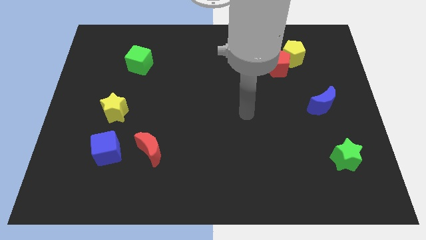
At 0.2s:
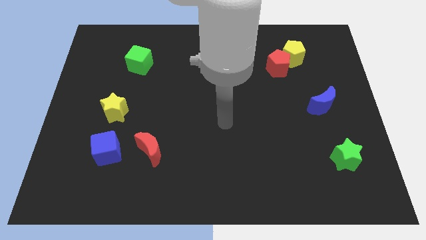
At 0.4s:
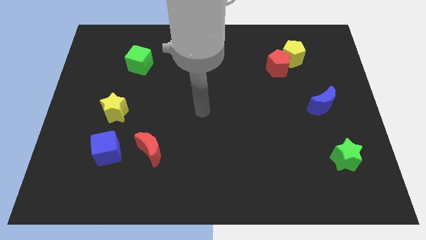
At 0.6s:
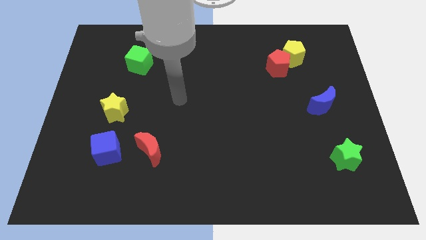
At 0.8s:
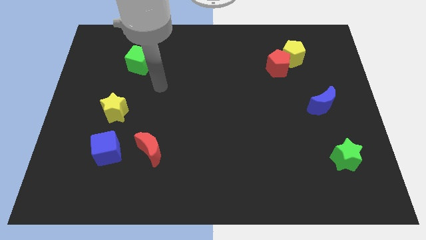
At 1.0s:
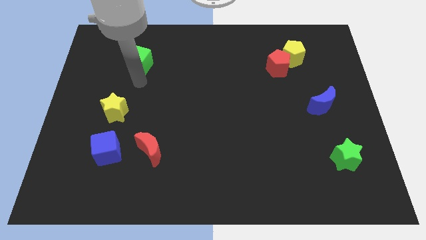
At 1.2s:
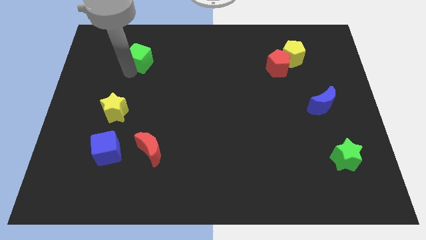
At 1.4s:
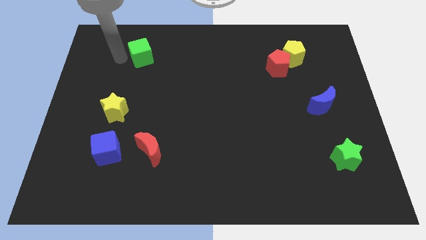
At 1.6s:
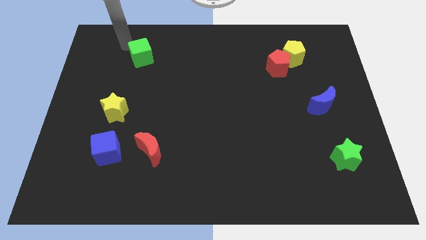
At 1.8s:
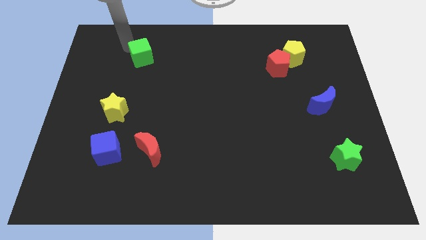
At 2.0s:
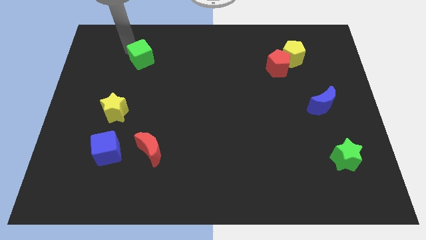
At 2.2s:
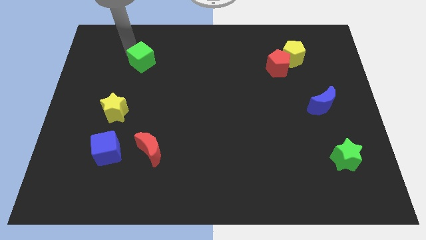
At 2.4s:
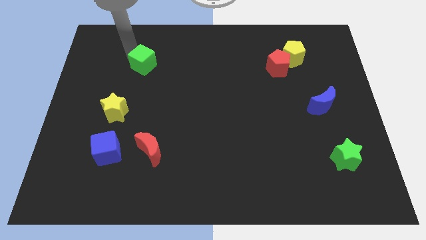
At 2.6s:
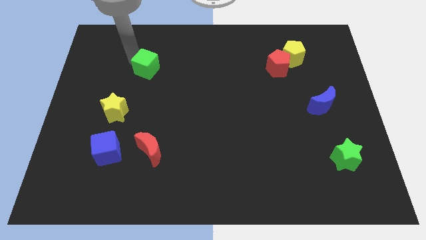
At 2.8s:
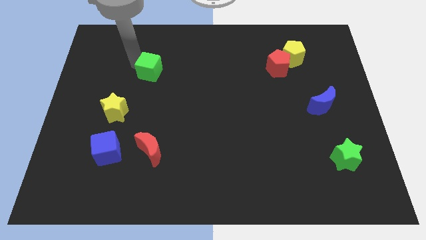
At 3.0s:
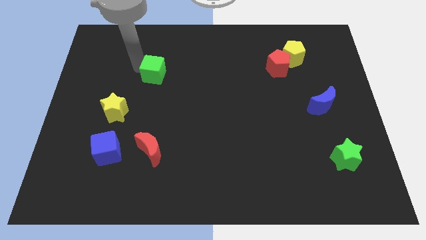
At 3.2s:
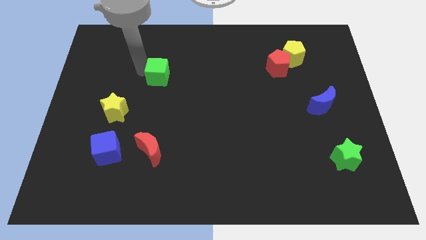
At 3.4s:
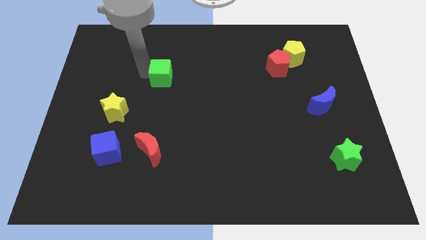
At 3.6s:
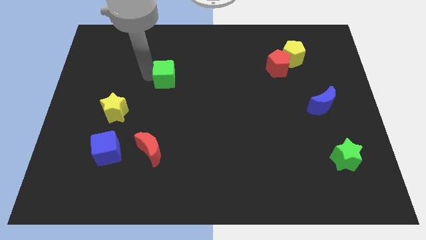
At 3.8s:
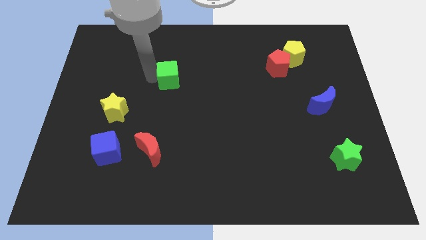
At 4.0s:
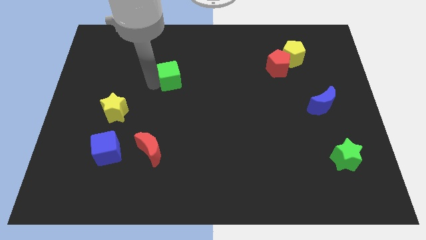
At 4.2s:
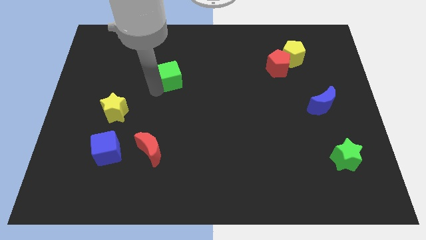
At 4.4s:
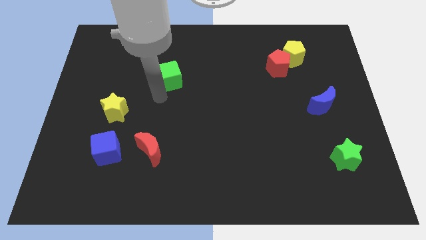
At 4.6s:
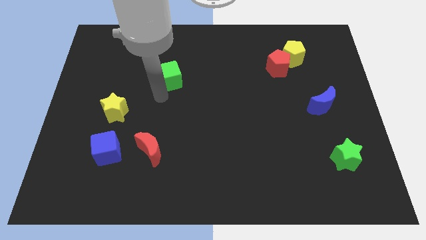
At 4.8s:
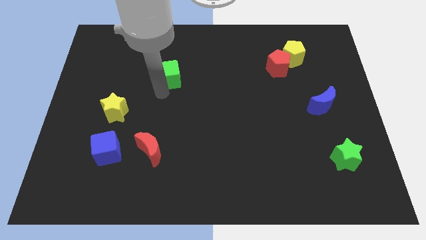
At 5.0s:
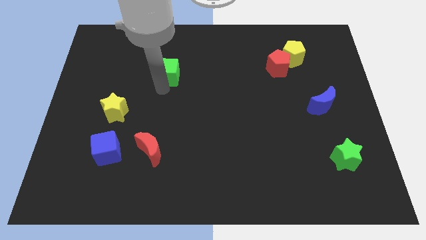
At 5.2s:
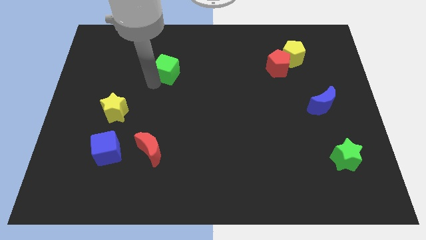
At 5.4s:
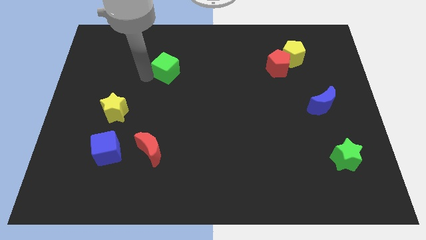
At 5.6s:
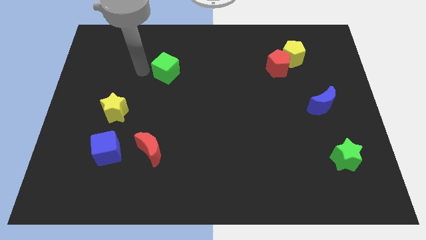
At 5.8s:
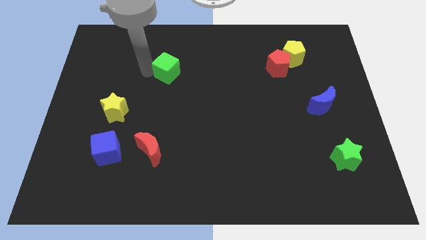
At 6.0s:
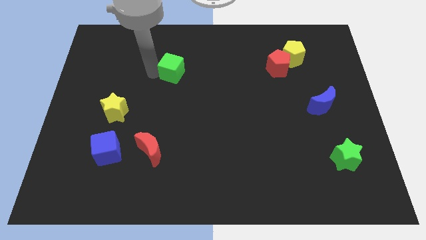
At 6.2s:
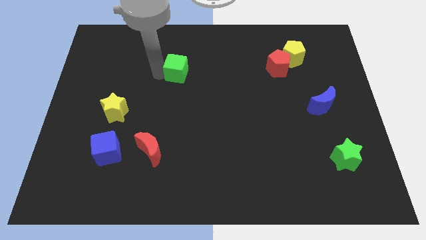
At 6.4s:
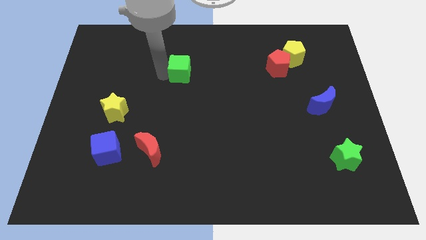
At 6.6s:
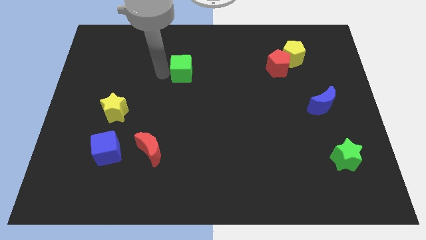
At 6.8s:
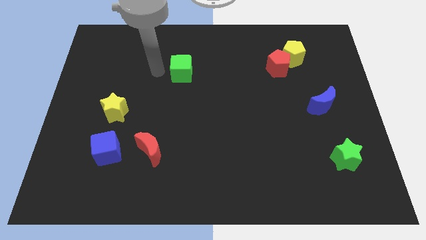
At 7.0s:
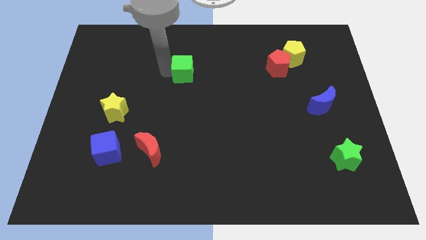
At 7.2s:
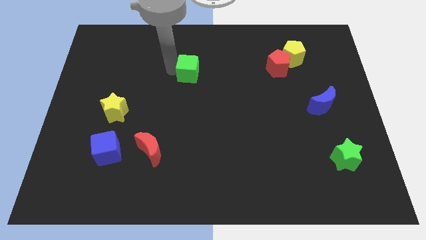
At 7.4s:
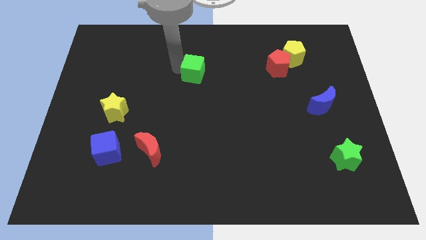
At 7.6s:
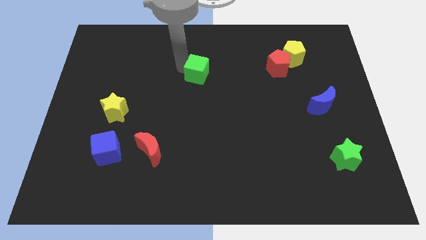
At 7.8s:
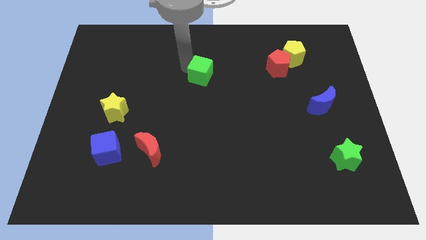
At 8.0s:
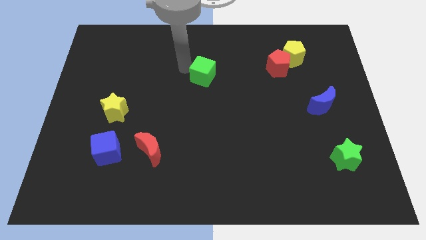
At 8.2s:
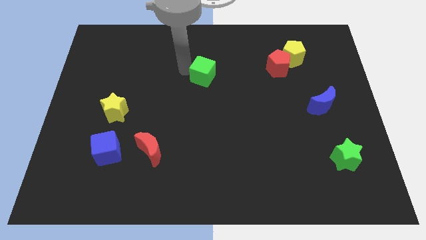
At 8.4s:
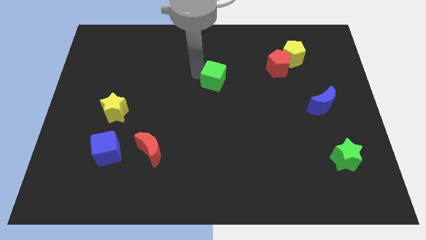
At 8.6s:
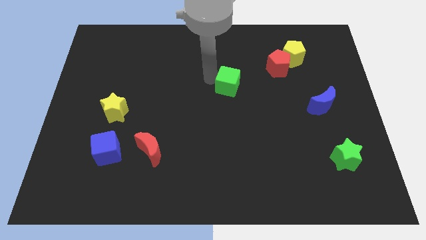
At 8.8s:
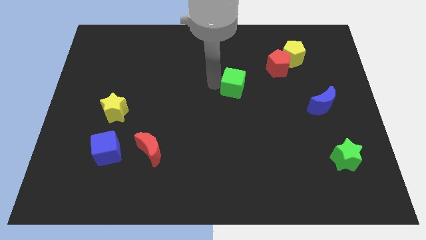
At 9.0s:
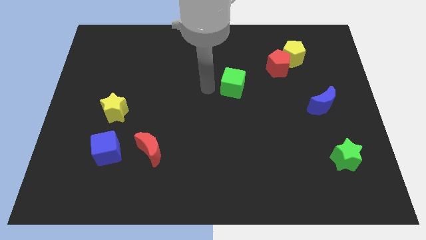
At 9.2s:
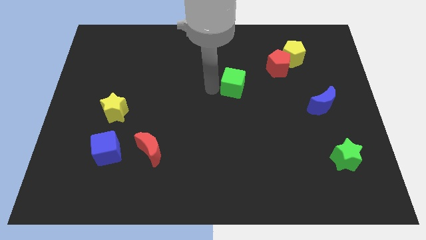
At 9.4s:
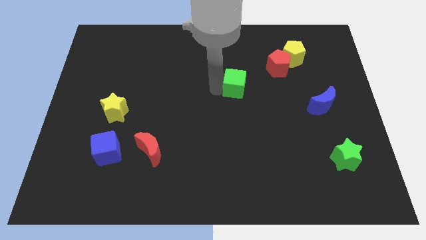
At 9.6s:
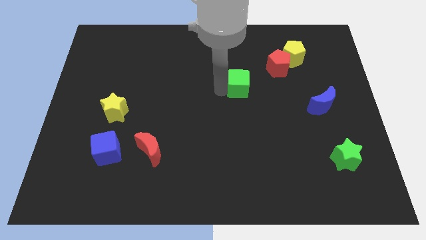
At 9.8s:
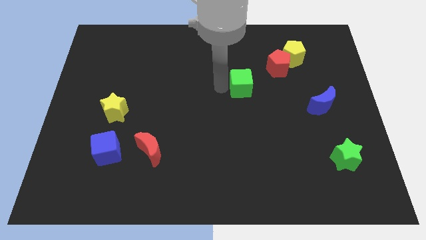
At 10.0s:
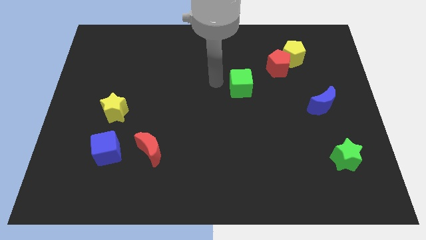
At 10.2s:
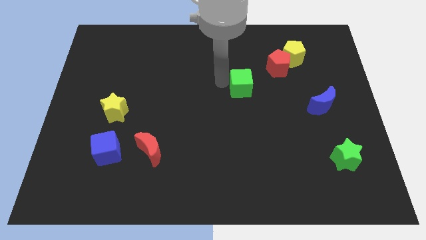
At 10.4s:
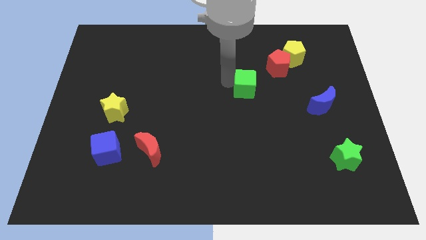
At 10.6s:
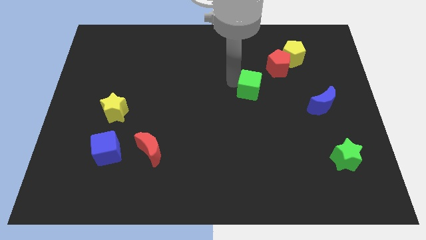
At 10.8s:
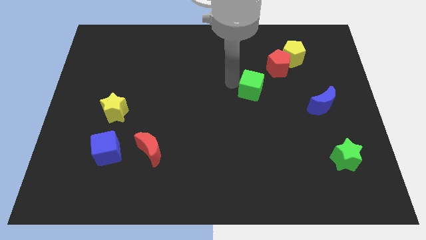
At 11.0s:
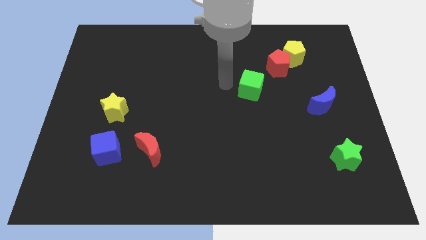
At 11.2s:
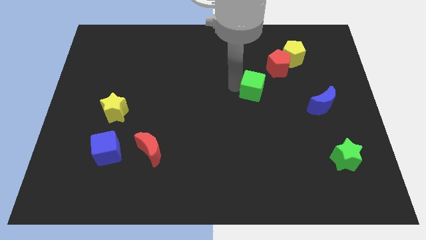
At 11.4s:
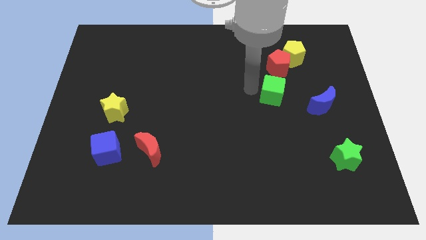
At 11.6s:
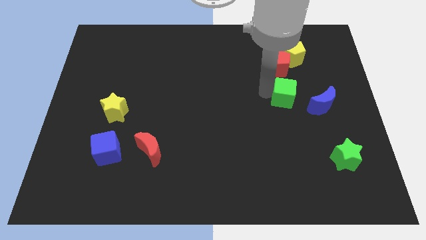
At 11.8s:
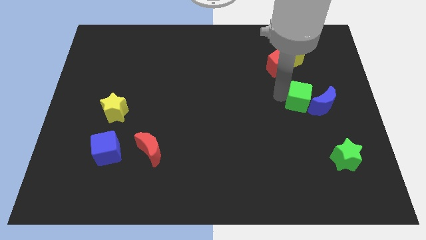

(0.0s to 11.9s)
push the green cube towards the blue moon

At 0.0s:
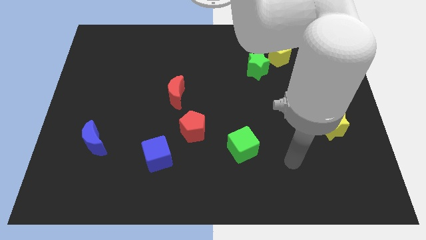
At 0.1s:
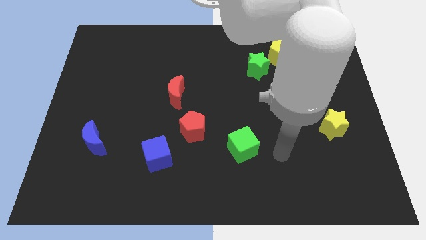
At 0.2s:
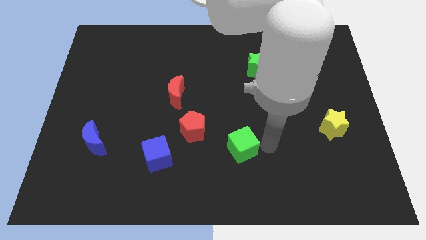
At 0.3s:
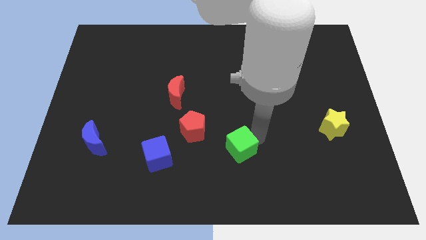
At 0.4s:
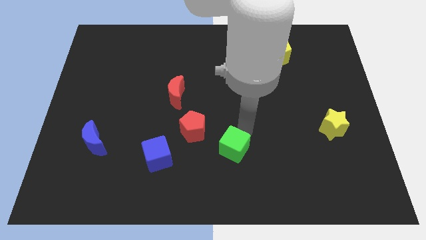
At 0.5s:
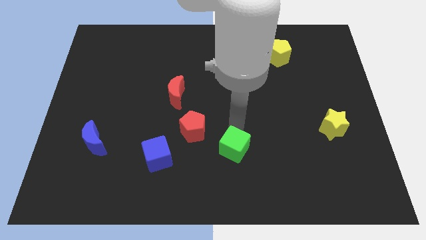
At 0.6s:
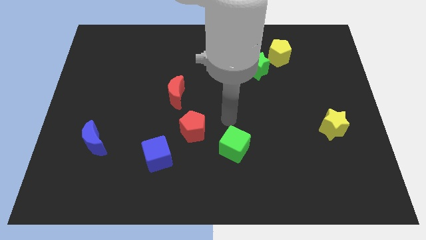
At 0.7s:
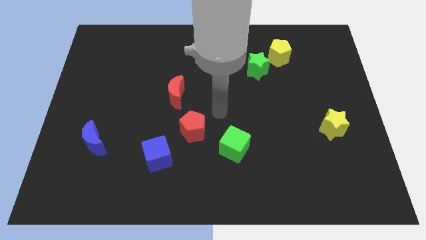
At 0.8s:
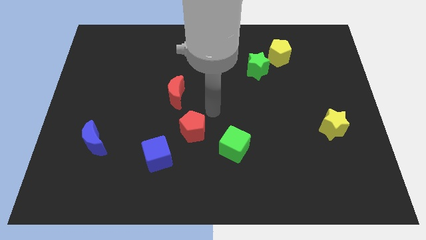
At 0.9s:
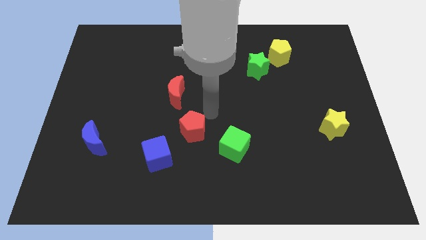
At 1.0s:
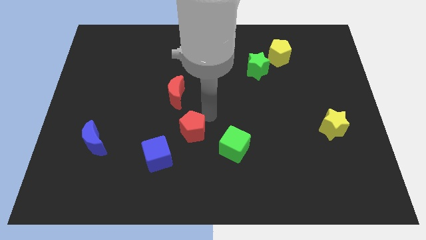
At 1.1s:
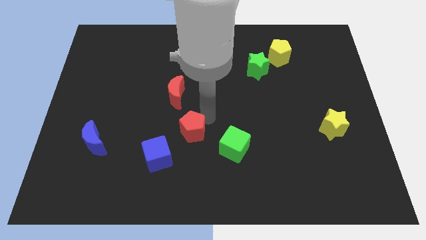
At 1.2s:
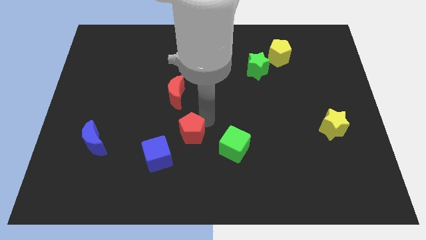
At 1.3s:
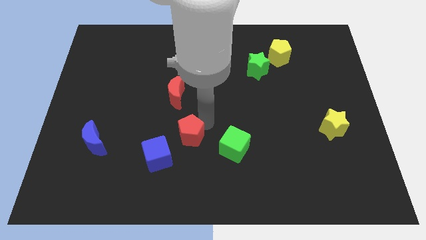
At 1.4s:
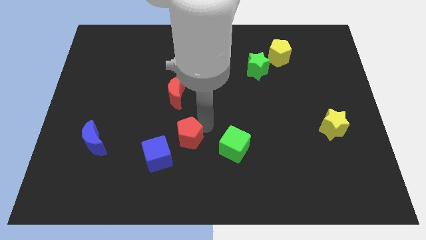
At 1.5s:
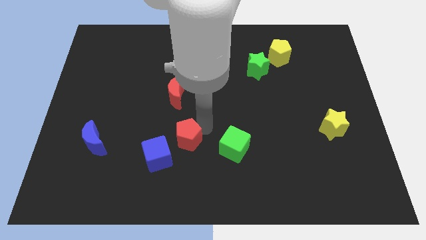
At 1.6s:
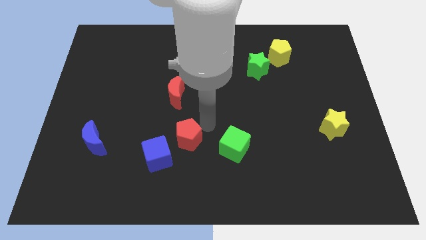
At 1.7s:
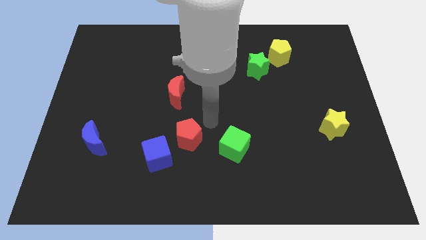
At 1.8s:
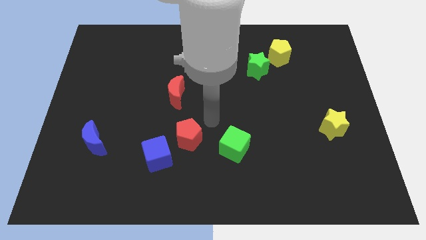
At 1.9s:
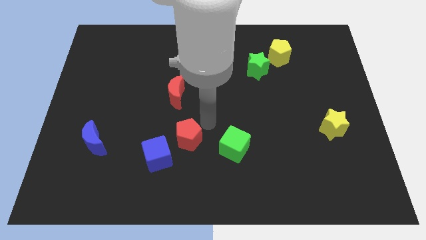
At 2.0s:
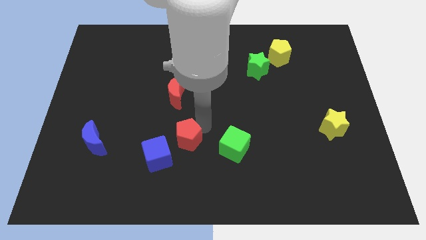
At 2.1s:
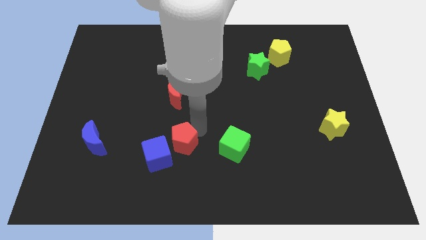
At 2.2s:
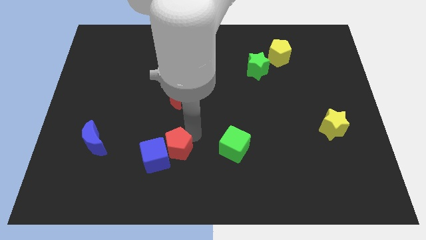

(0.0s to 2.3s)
move the red pentagon towards the blue cube
